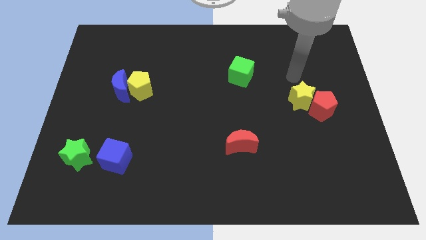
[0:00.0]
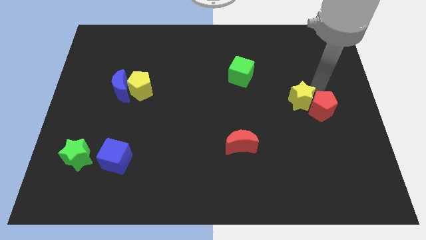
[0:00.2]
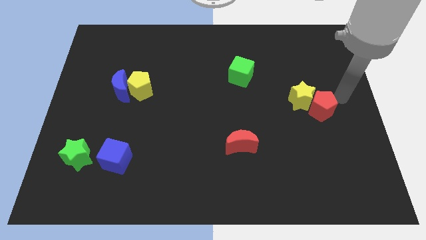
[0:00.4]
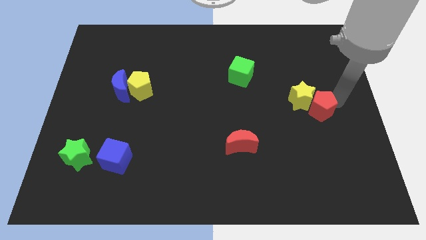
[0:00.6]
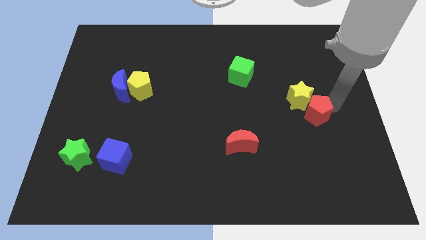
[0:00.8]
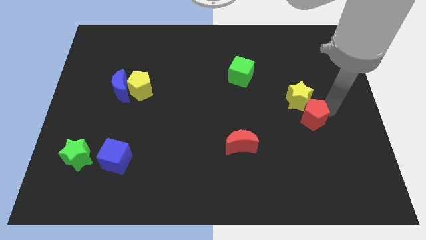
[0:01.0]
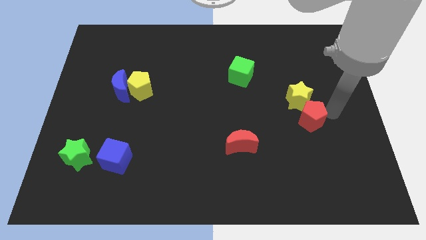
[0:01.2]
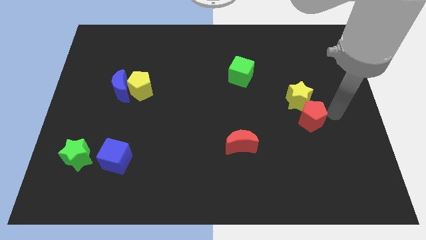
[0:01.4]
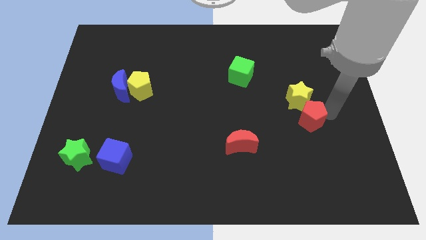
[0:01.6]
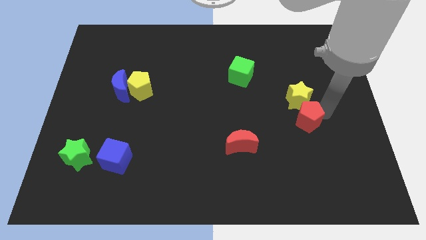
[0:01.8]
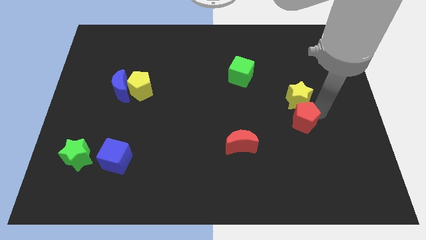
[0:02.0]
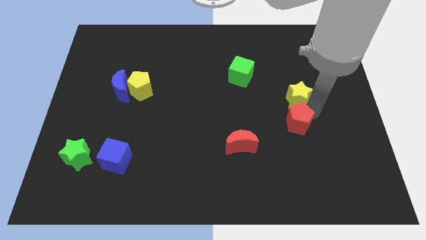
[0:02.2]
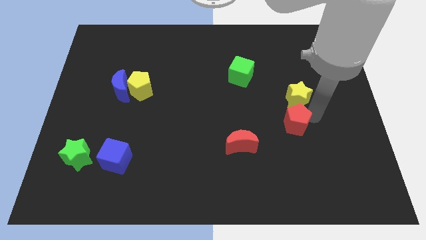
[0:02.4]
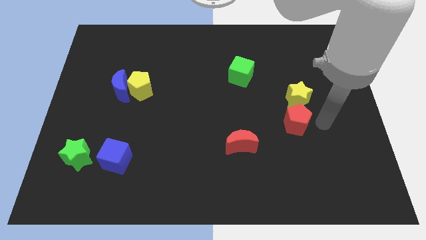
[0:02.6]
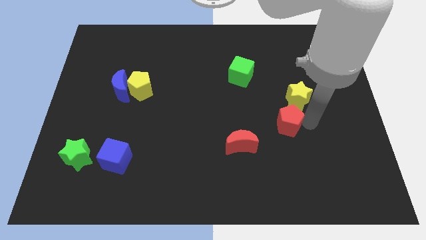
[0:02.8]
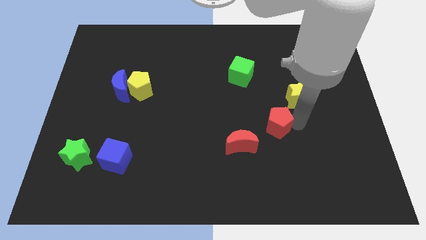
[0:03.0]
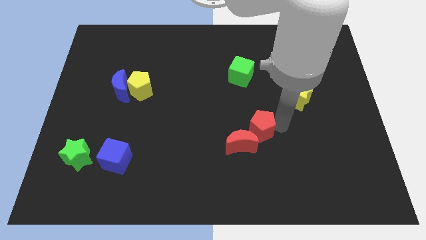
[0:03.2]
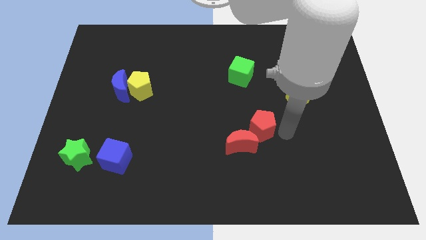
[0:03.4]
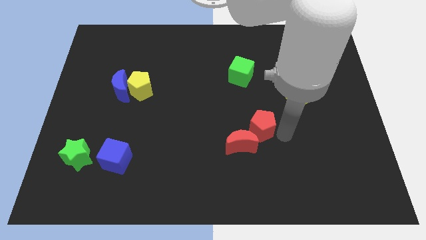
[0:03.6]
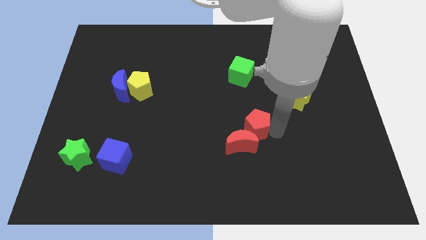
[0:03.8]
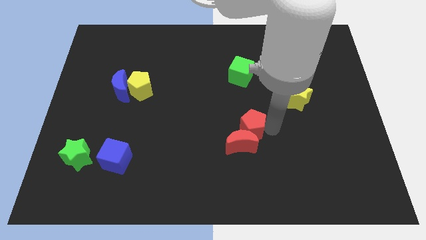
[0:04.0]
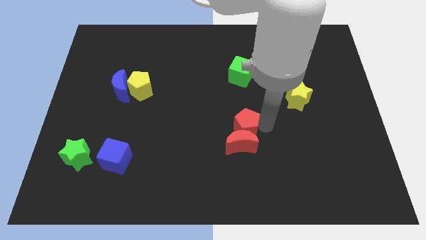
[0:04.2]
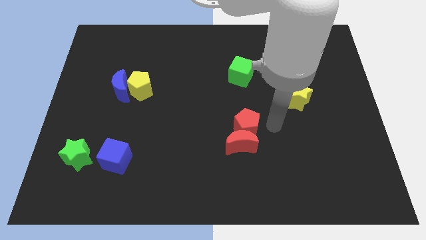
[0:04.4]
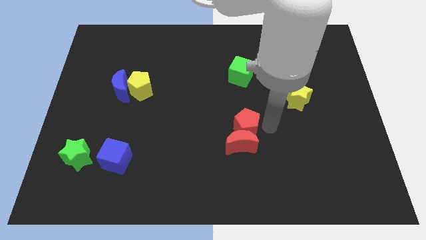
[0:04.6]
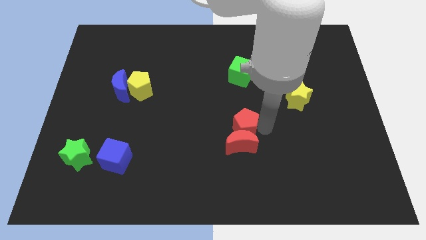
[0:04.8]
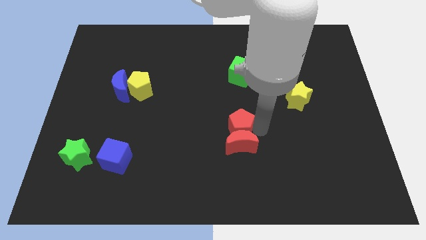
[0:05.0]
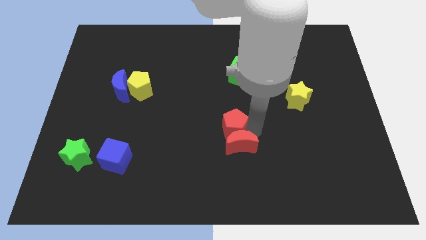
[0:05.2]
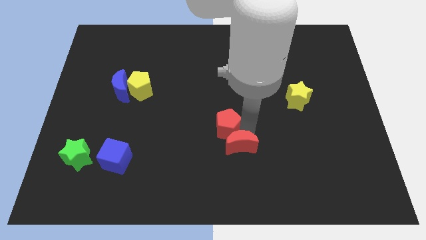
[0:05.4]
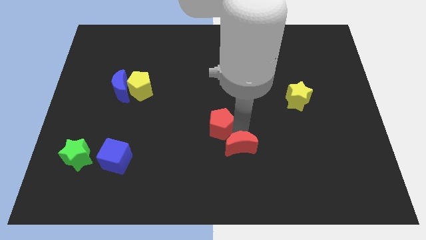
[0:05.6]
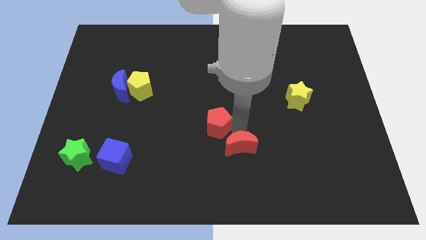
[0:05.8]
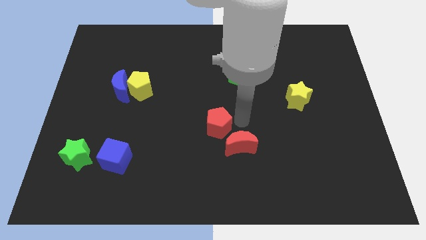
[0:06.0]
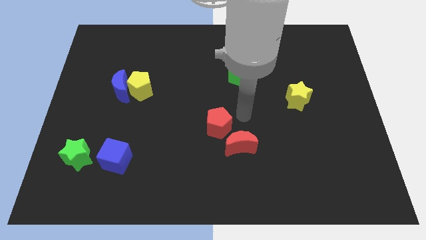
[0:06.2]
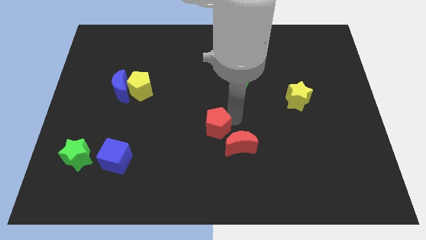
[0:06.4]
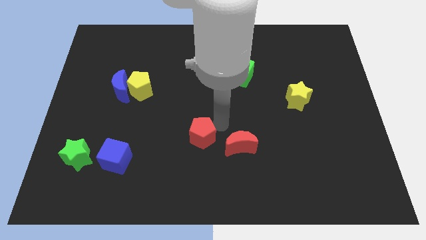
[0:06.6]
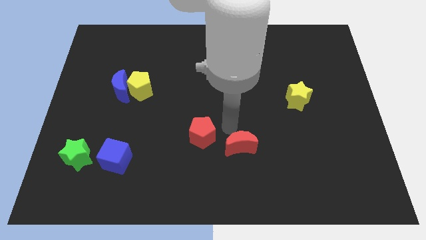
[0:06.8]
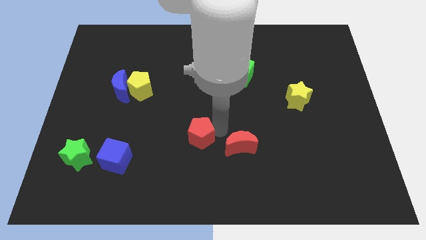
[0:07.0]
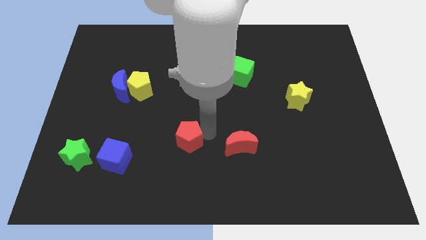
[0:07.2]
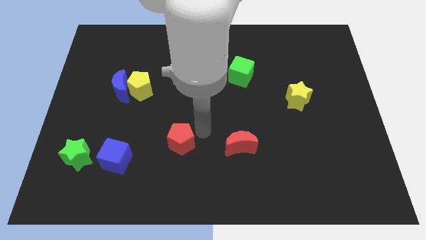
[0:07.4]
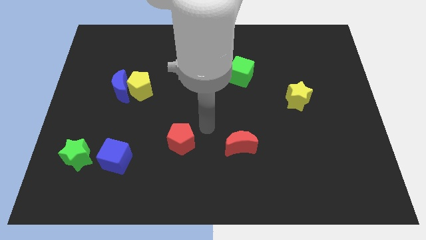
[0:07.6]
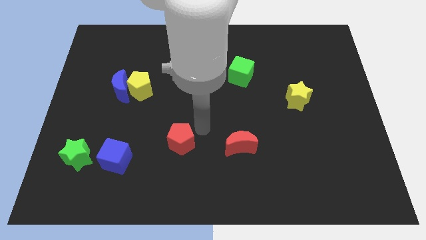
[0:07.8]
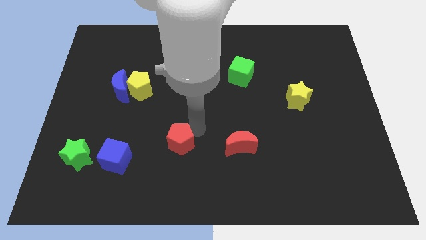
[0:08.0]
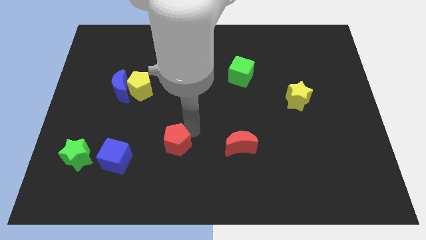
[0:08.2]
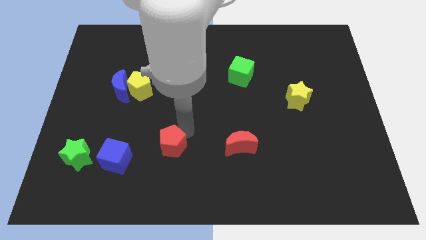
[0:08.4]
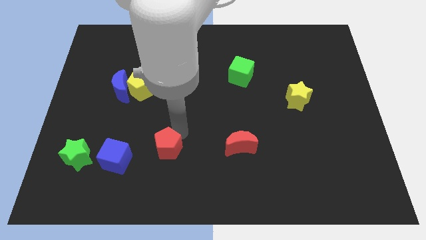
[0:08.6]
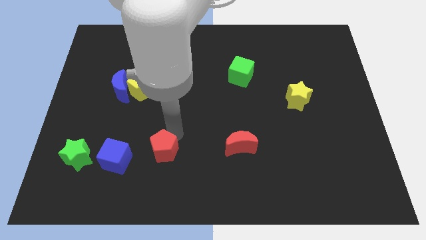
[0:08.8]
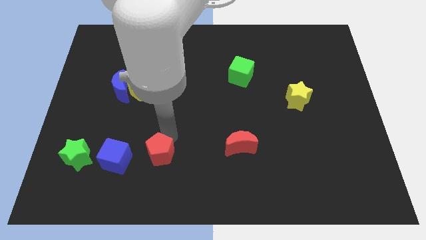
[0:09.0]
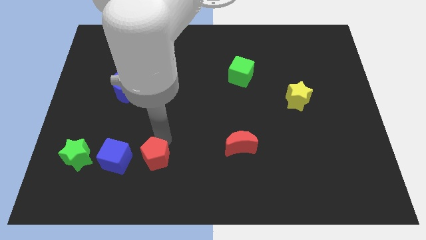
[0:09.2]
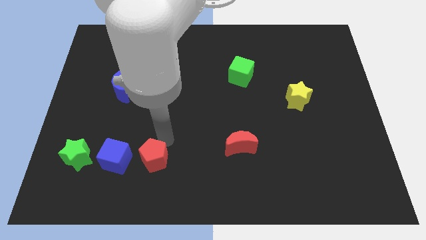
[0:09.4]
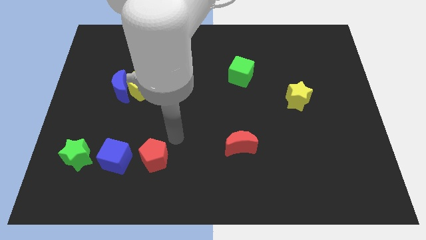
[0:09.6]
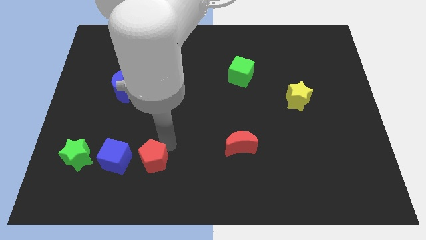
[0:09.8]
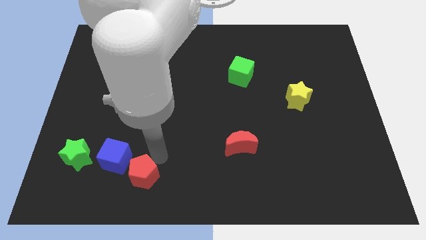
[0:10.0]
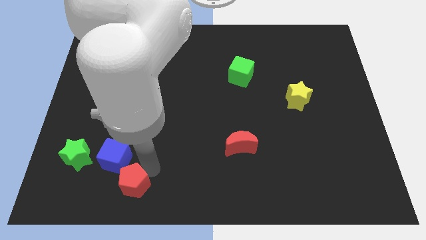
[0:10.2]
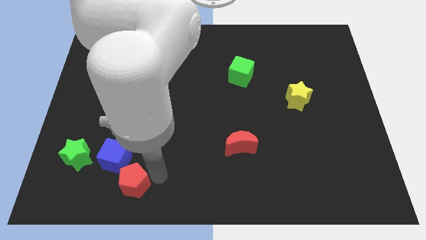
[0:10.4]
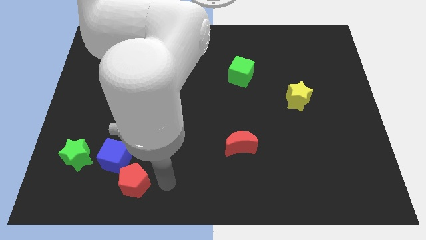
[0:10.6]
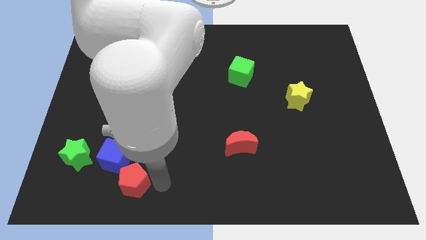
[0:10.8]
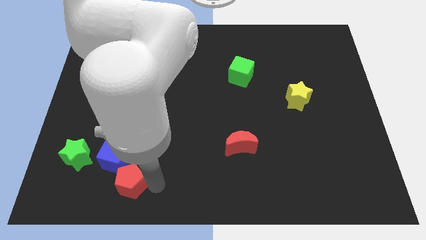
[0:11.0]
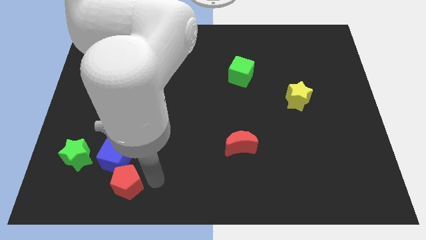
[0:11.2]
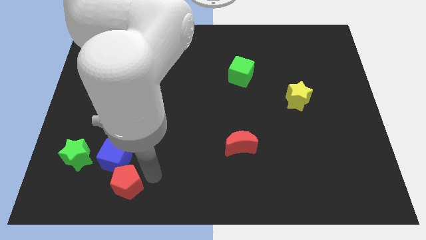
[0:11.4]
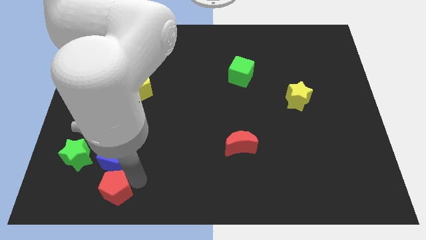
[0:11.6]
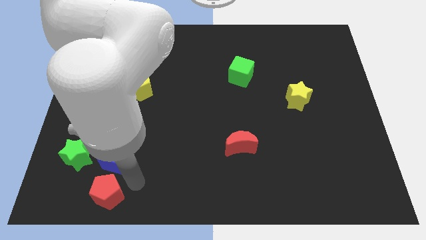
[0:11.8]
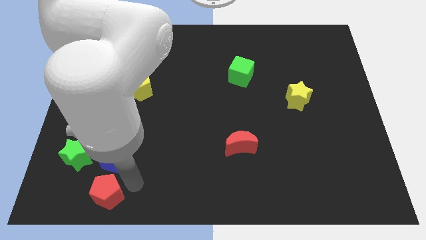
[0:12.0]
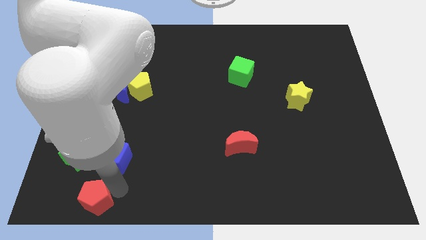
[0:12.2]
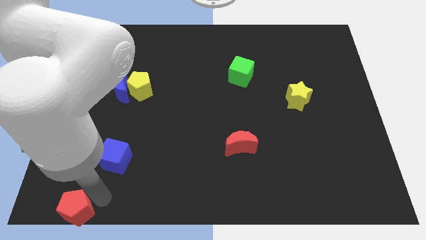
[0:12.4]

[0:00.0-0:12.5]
move the red pentagon to the bottom left of the board

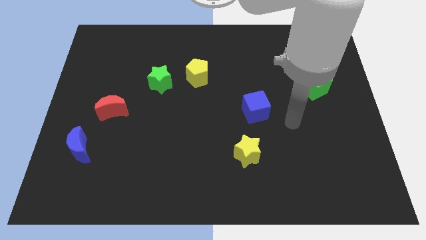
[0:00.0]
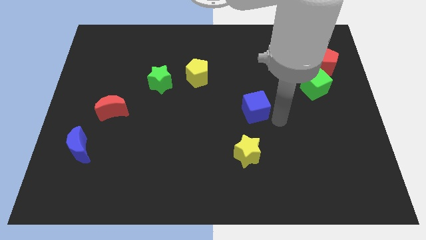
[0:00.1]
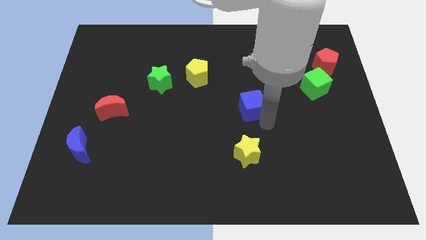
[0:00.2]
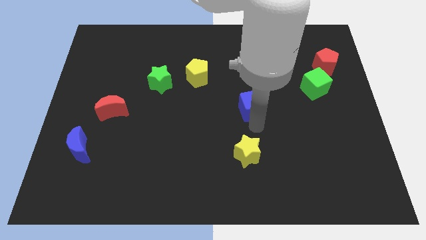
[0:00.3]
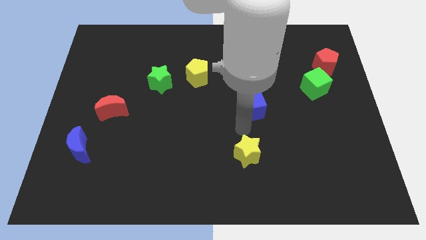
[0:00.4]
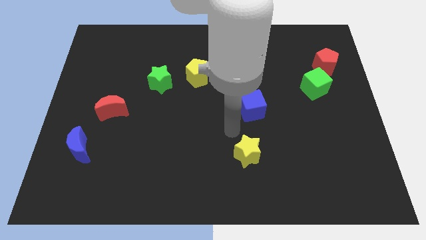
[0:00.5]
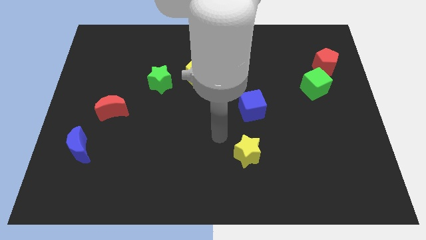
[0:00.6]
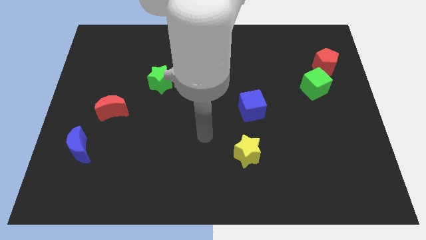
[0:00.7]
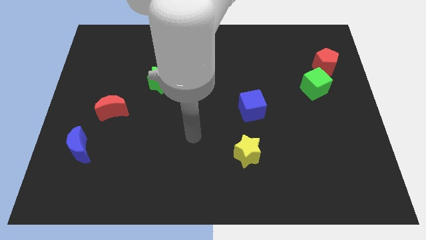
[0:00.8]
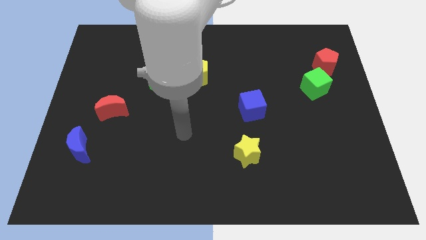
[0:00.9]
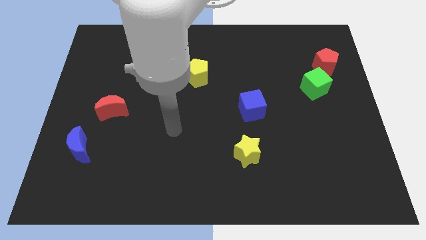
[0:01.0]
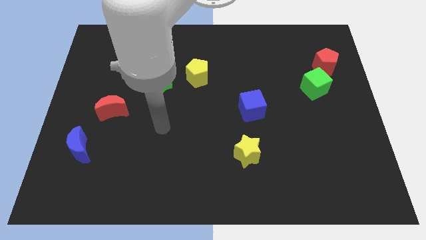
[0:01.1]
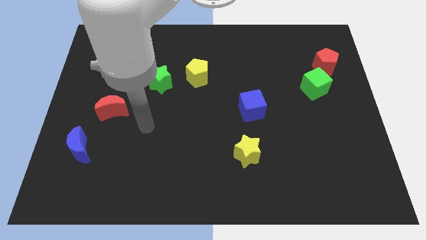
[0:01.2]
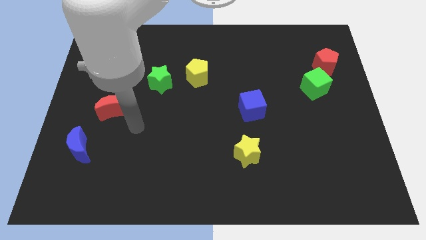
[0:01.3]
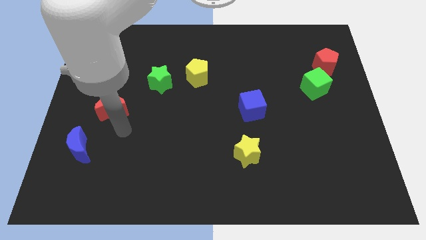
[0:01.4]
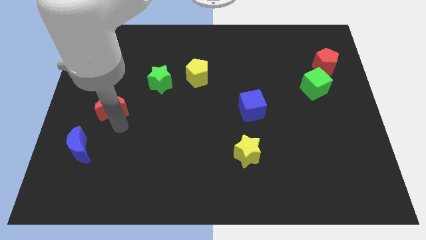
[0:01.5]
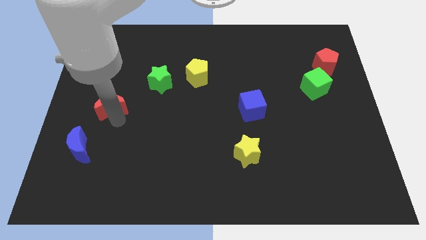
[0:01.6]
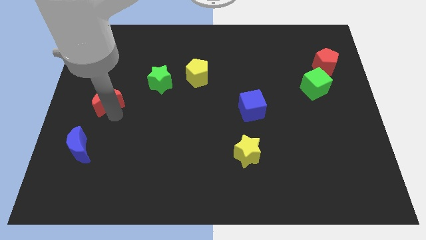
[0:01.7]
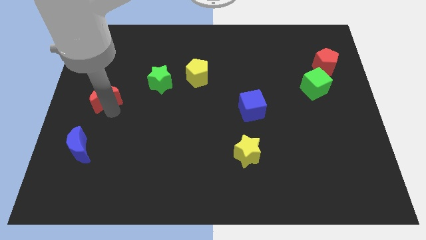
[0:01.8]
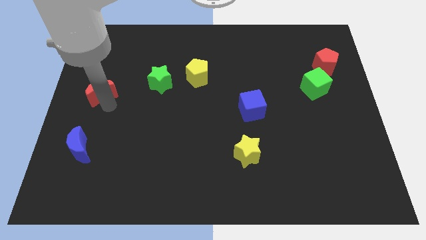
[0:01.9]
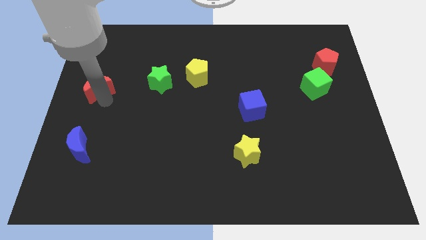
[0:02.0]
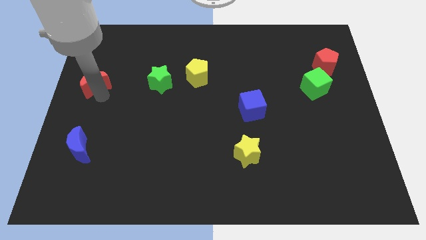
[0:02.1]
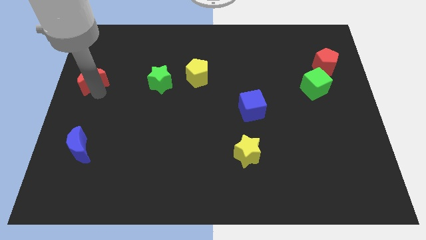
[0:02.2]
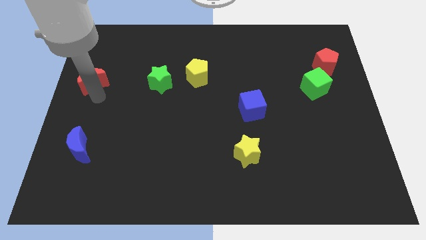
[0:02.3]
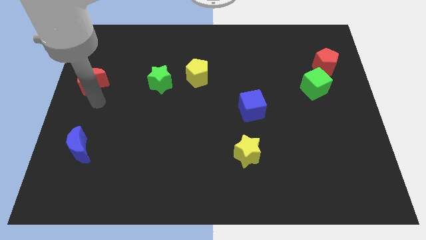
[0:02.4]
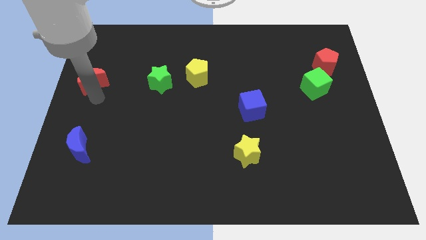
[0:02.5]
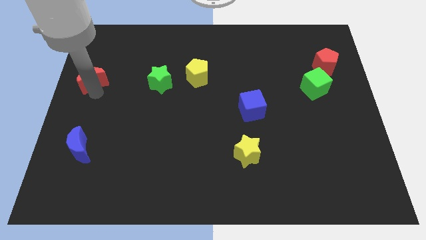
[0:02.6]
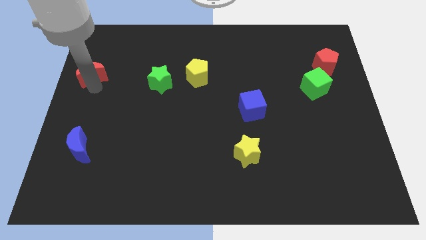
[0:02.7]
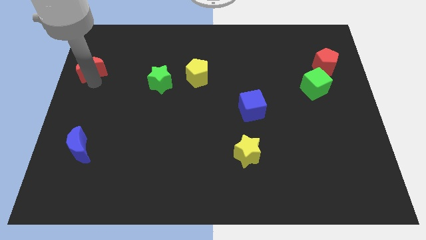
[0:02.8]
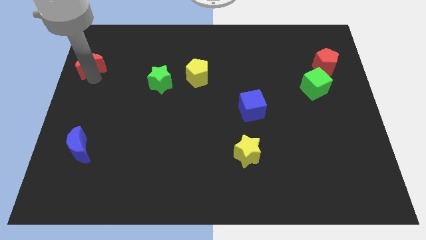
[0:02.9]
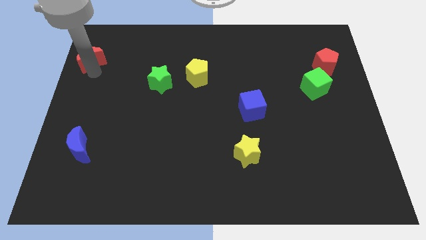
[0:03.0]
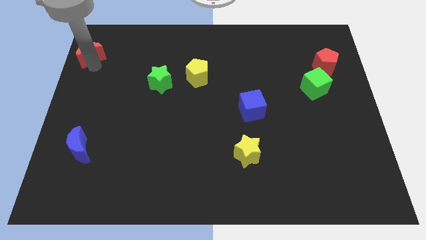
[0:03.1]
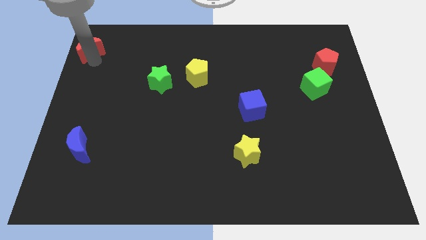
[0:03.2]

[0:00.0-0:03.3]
put the red moon to the top left of the board
